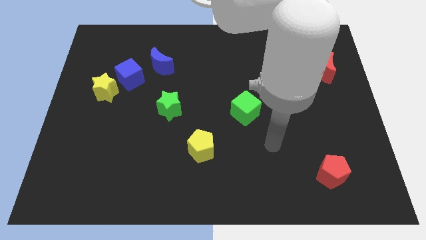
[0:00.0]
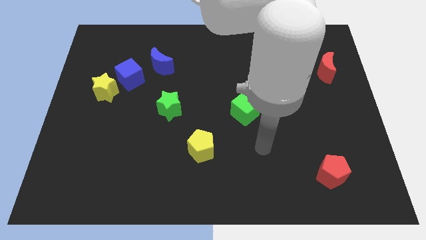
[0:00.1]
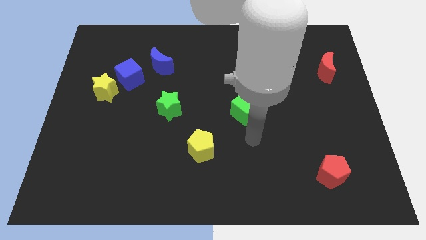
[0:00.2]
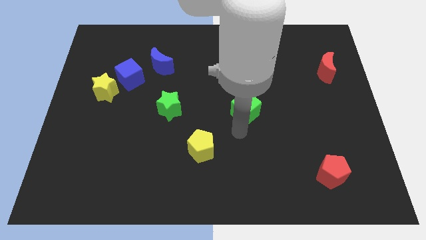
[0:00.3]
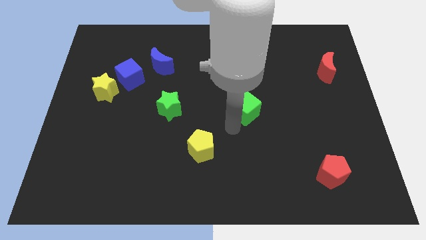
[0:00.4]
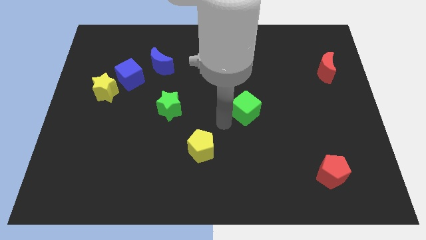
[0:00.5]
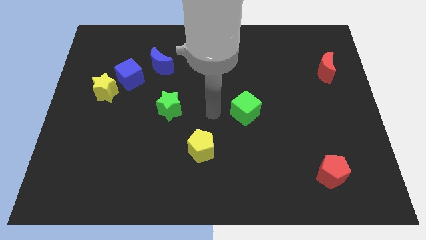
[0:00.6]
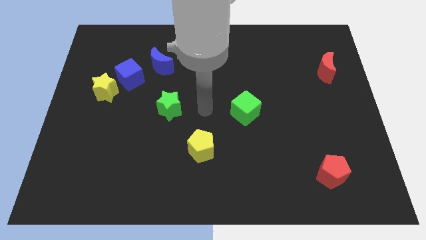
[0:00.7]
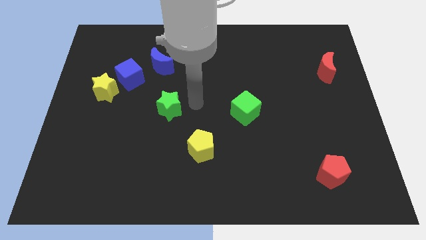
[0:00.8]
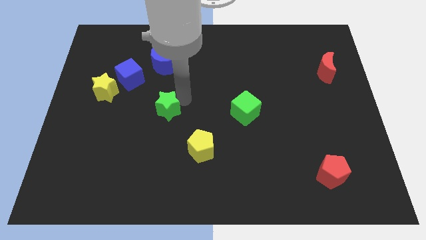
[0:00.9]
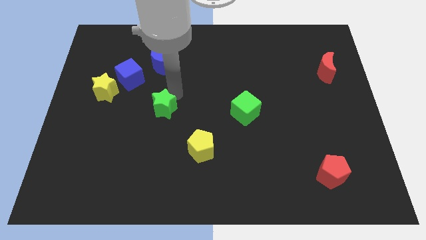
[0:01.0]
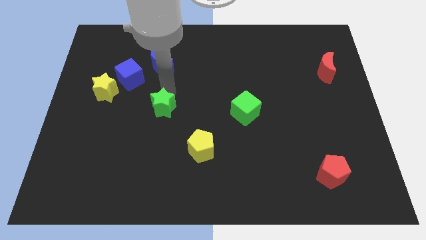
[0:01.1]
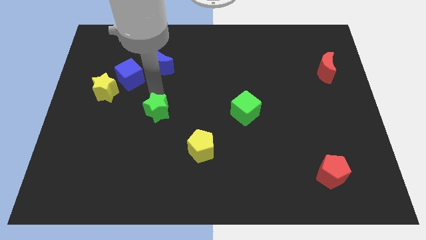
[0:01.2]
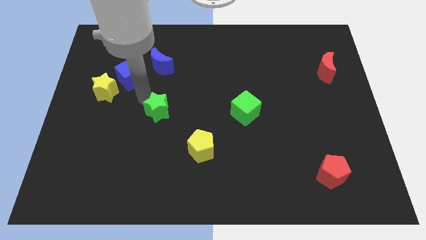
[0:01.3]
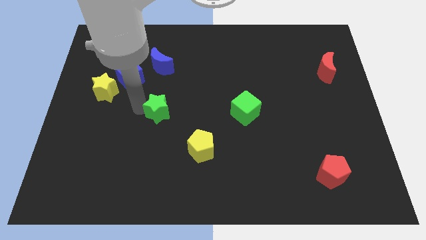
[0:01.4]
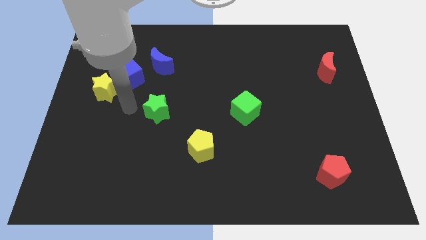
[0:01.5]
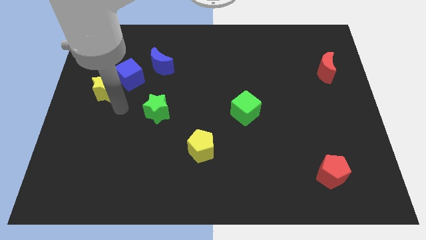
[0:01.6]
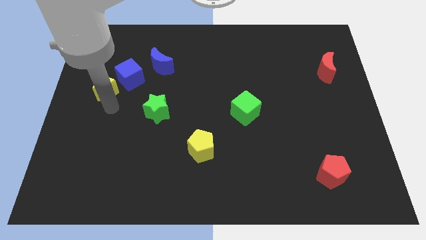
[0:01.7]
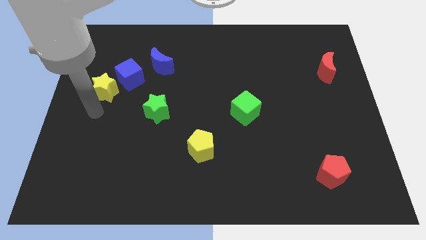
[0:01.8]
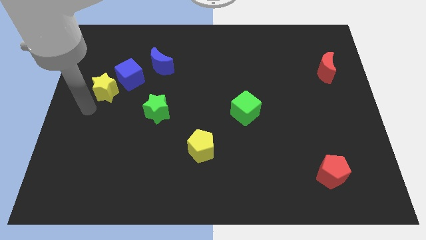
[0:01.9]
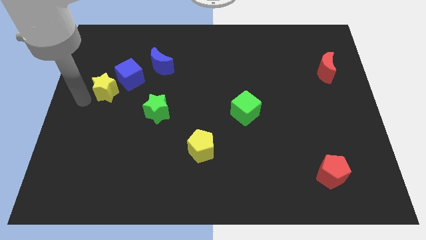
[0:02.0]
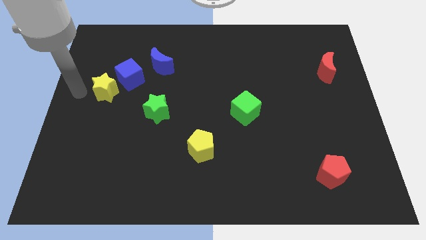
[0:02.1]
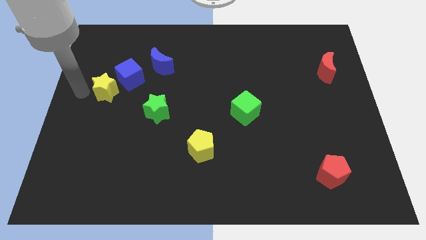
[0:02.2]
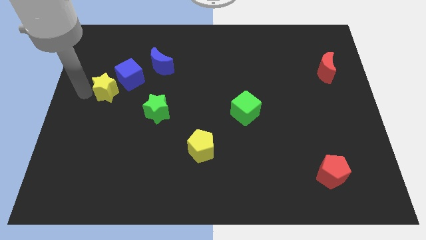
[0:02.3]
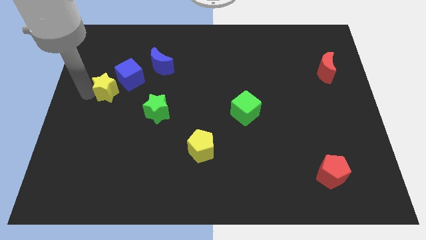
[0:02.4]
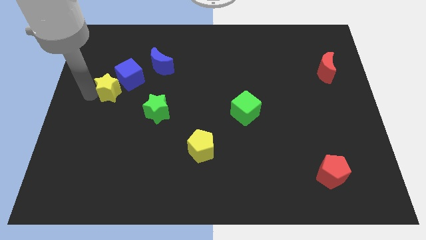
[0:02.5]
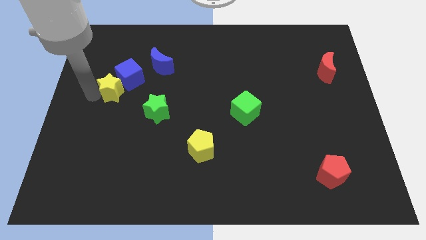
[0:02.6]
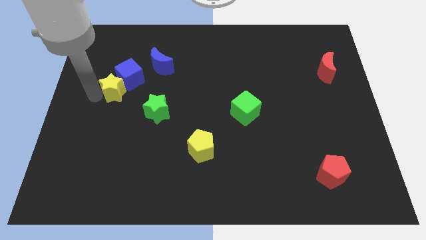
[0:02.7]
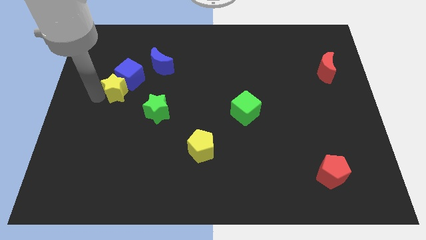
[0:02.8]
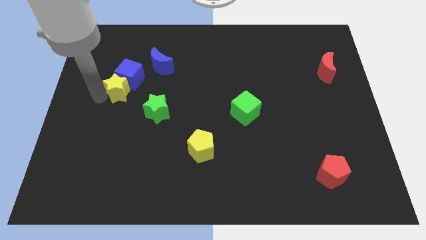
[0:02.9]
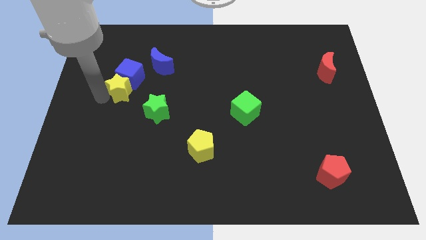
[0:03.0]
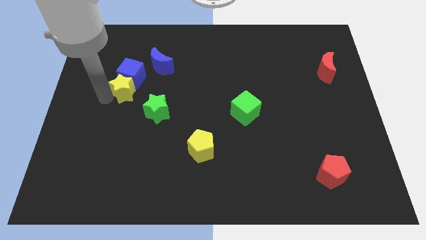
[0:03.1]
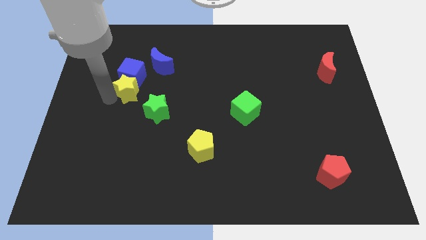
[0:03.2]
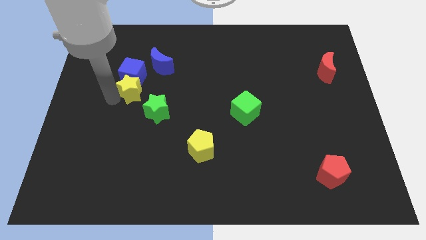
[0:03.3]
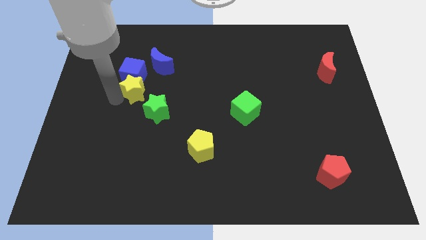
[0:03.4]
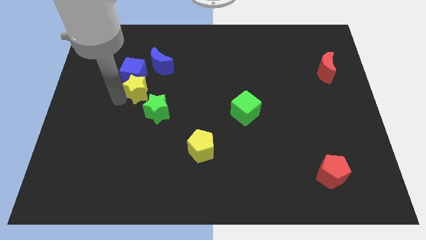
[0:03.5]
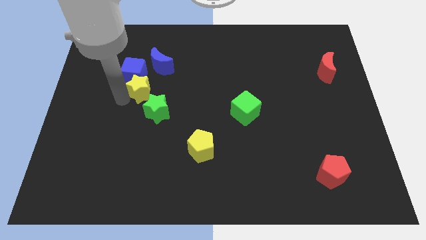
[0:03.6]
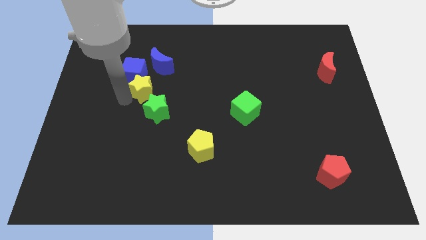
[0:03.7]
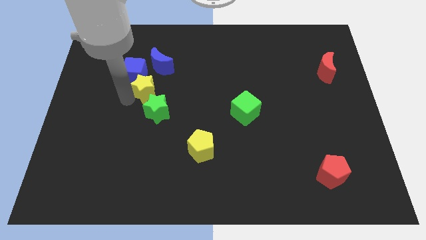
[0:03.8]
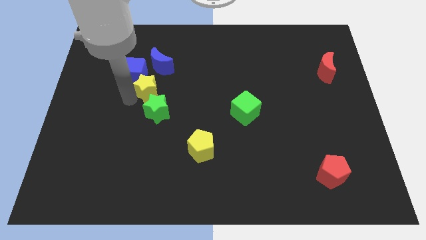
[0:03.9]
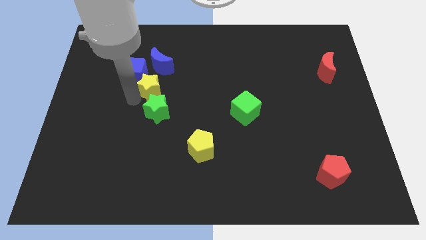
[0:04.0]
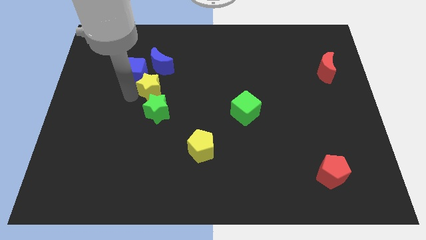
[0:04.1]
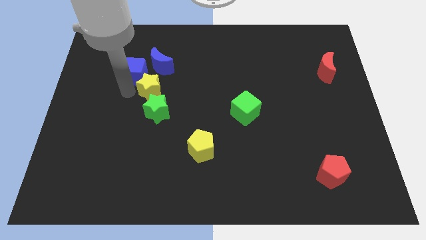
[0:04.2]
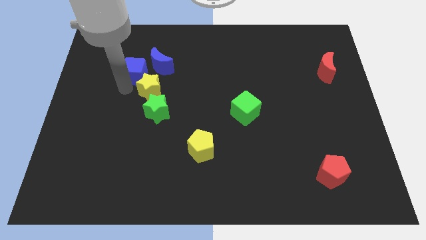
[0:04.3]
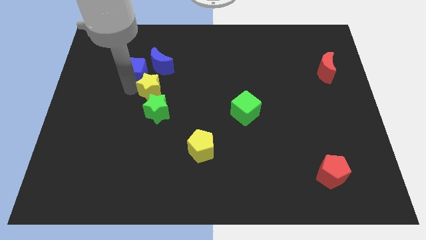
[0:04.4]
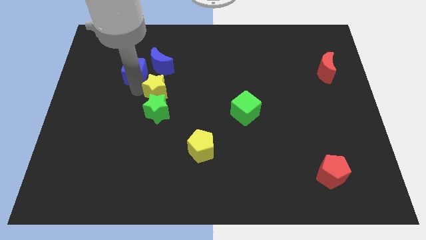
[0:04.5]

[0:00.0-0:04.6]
move the yellow star to the top right of the green star

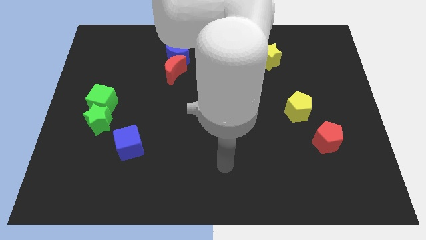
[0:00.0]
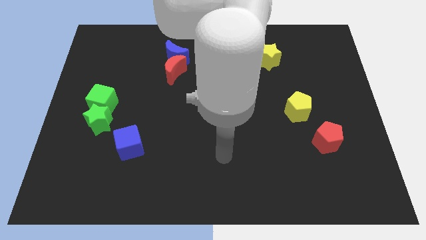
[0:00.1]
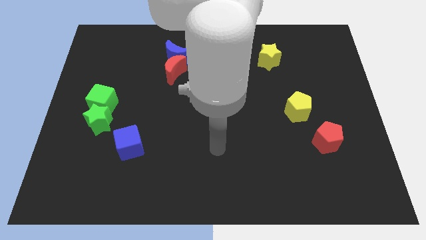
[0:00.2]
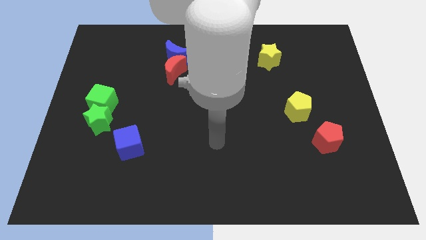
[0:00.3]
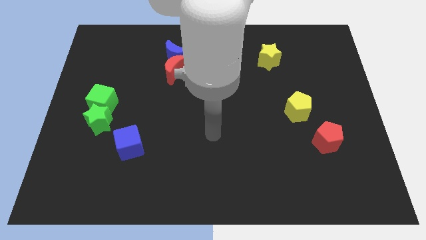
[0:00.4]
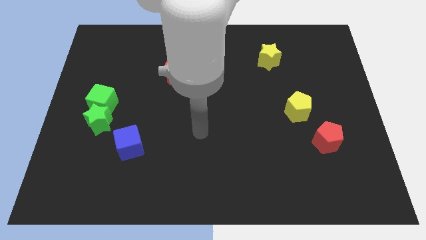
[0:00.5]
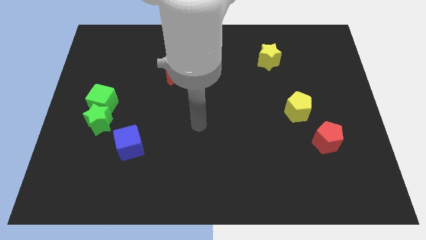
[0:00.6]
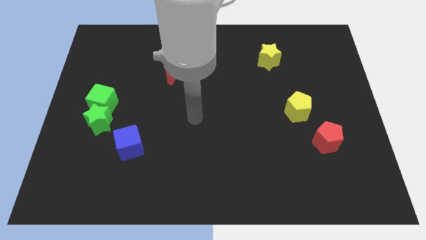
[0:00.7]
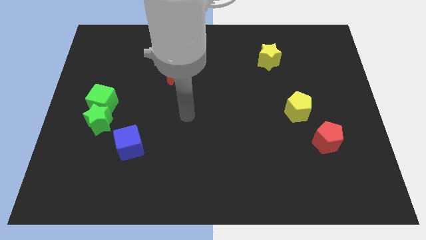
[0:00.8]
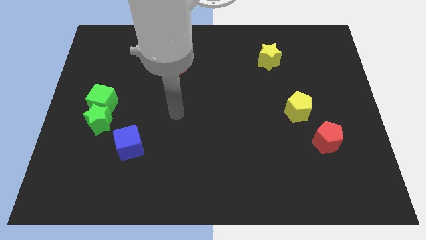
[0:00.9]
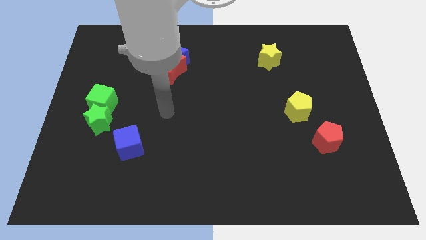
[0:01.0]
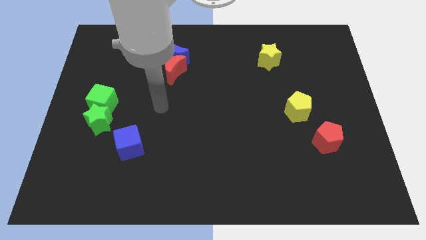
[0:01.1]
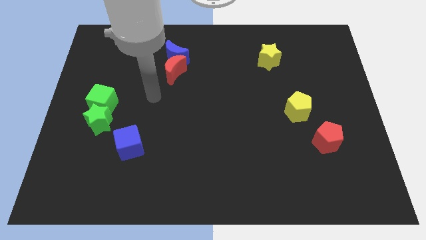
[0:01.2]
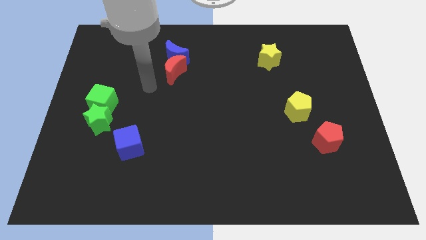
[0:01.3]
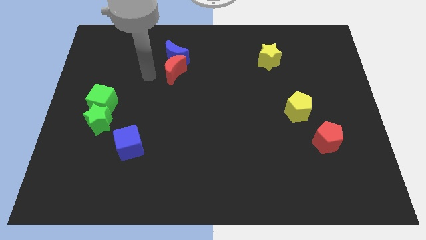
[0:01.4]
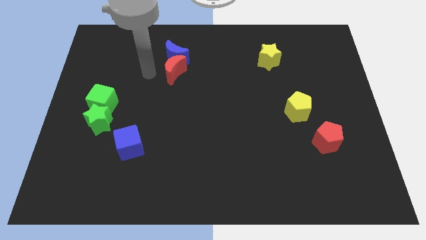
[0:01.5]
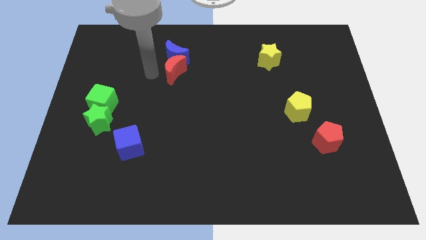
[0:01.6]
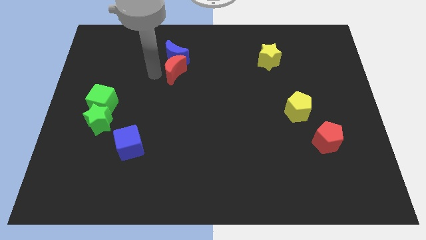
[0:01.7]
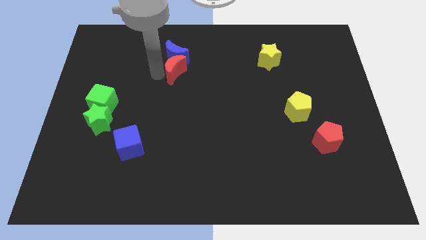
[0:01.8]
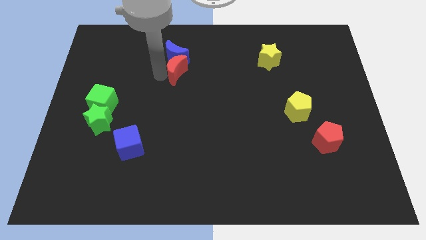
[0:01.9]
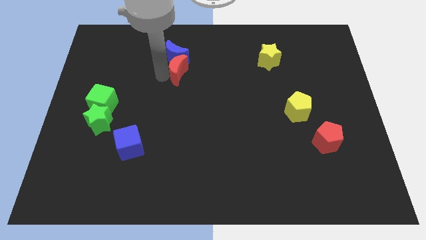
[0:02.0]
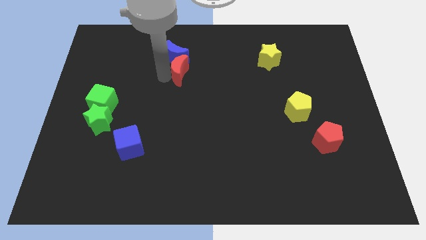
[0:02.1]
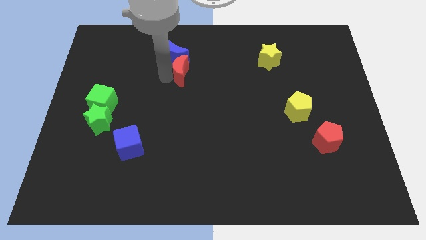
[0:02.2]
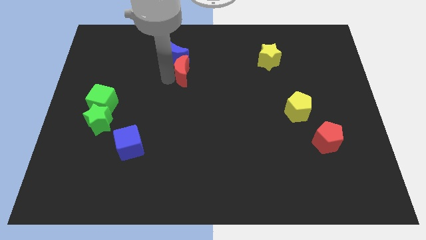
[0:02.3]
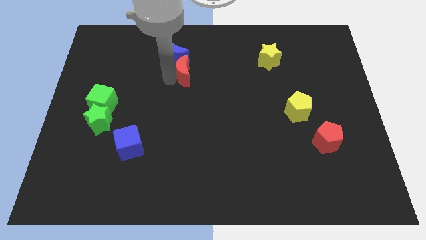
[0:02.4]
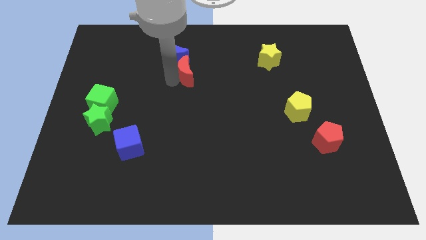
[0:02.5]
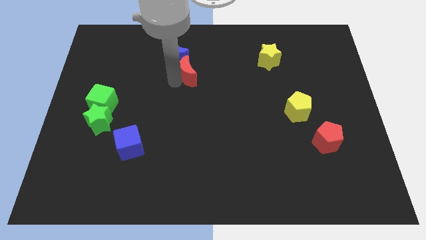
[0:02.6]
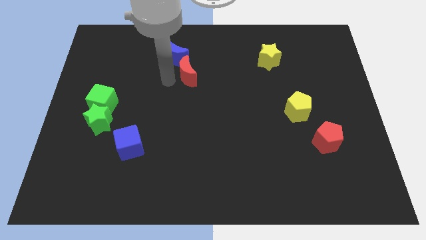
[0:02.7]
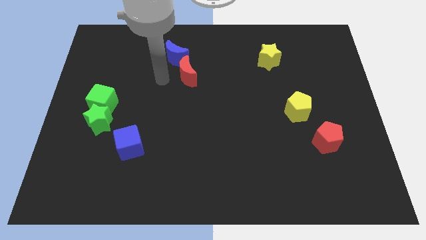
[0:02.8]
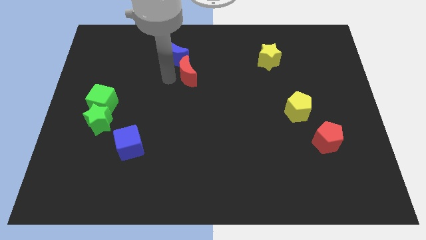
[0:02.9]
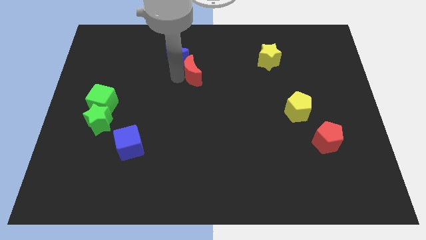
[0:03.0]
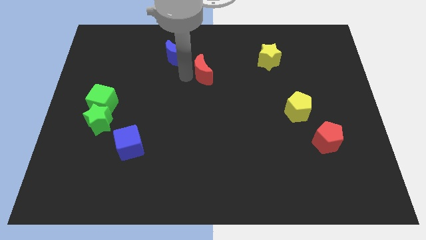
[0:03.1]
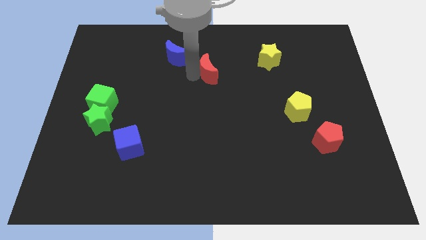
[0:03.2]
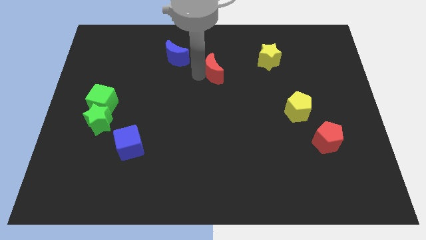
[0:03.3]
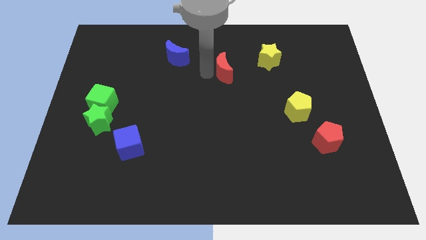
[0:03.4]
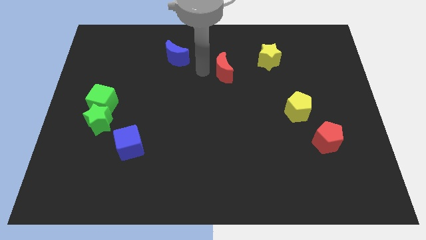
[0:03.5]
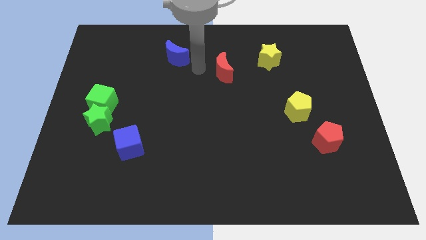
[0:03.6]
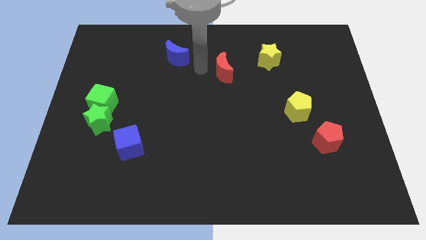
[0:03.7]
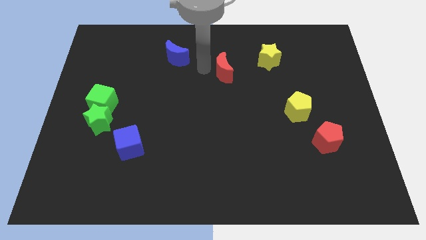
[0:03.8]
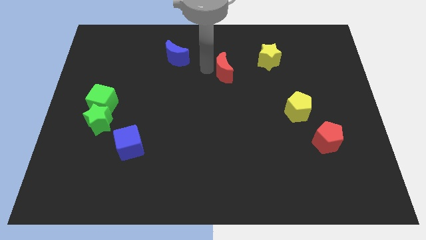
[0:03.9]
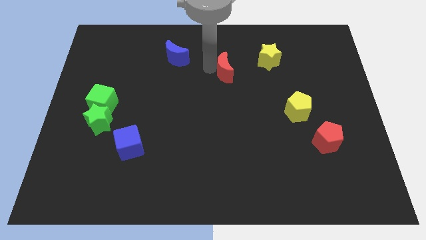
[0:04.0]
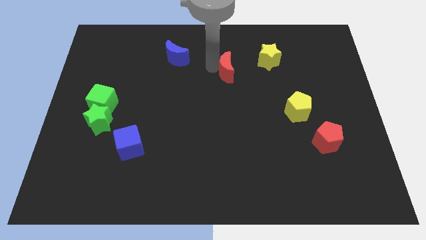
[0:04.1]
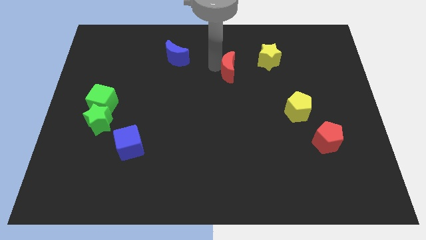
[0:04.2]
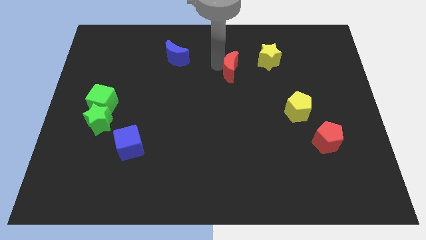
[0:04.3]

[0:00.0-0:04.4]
slide the red moon to the bottom left side of the yellow star
